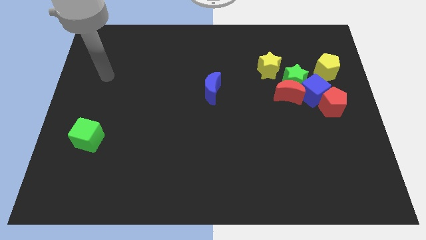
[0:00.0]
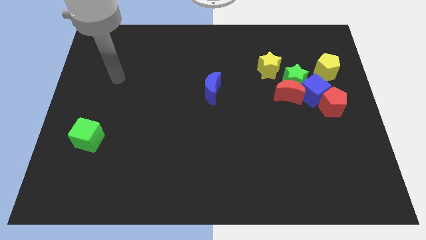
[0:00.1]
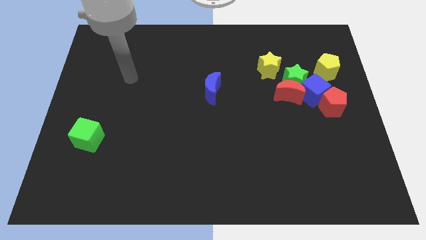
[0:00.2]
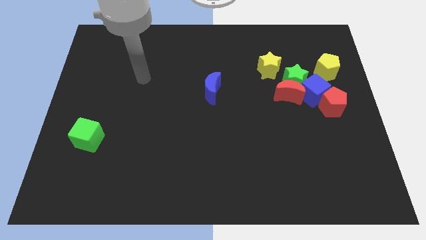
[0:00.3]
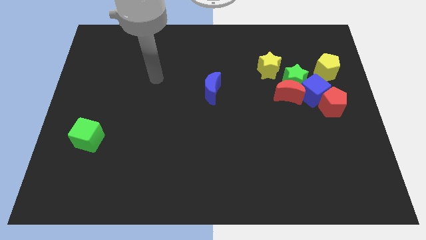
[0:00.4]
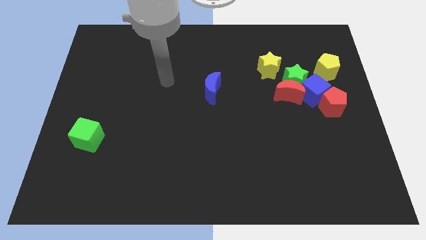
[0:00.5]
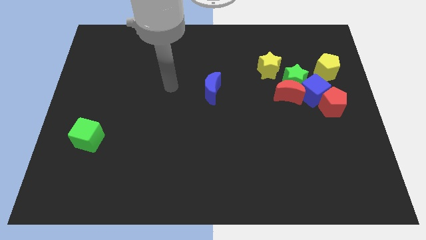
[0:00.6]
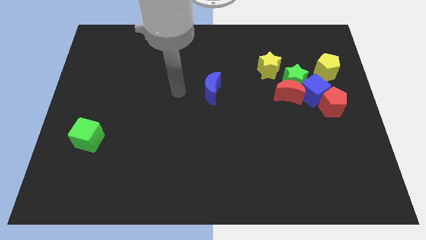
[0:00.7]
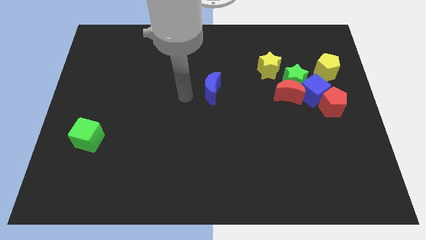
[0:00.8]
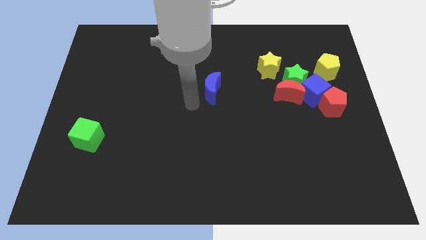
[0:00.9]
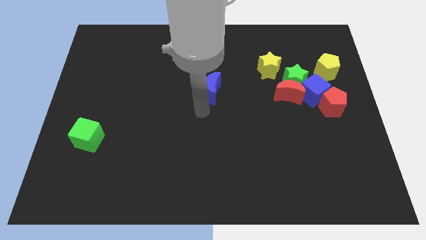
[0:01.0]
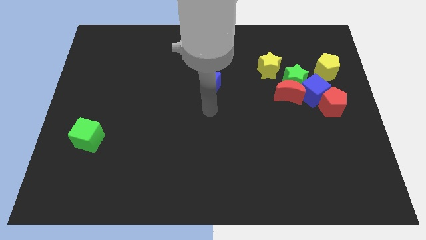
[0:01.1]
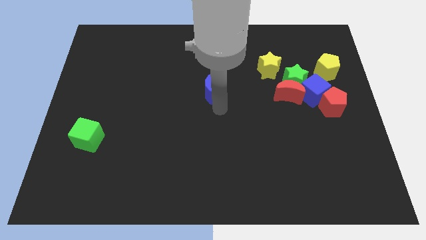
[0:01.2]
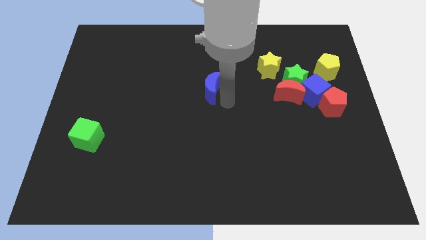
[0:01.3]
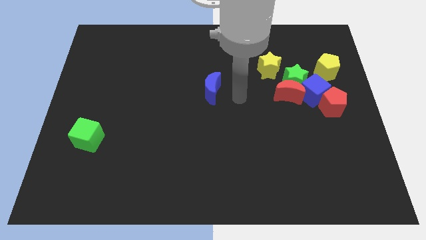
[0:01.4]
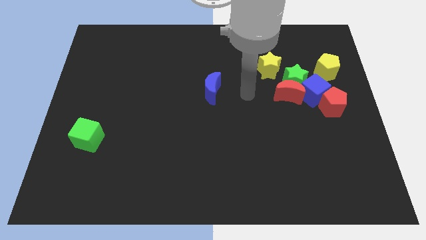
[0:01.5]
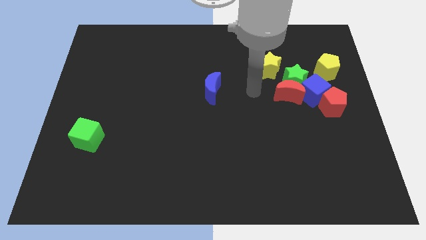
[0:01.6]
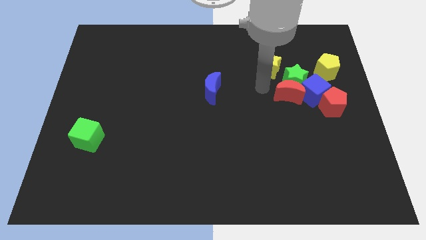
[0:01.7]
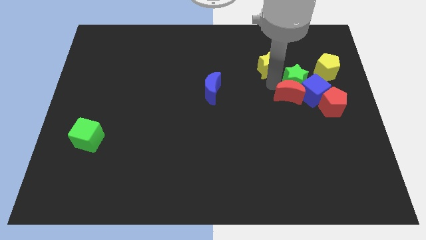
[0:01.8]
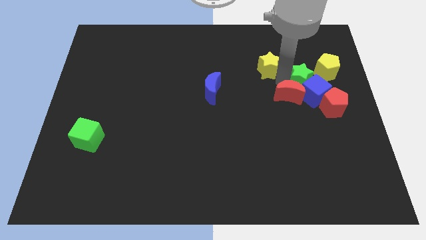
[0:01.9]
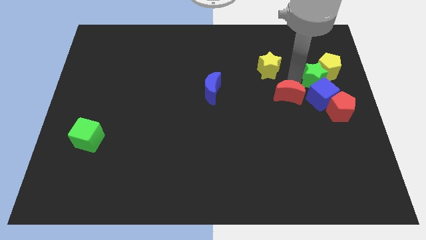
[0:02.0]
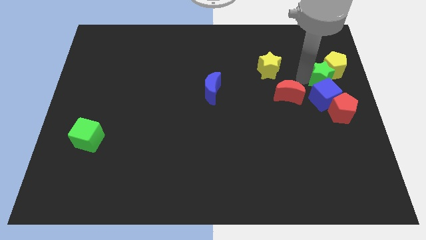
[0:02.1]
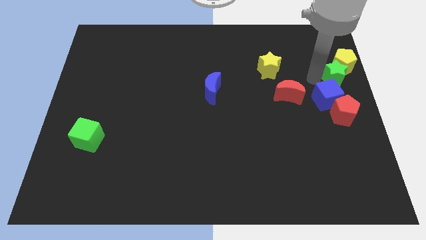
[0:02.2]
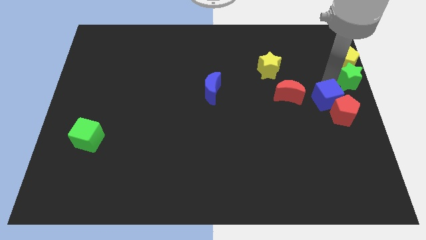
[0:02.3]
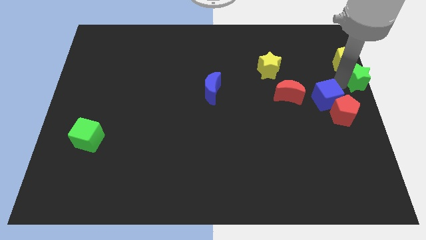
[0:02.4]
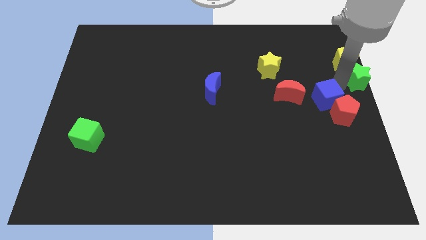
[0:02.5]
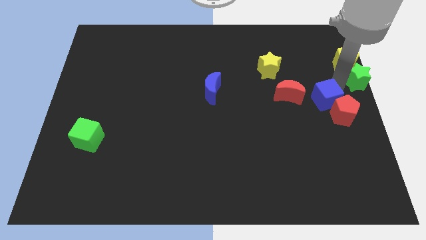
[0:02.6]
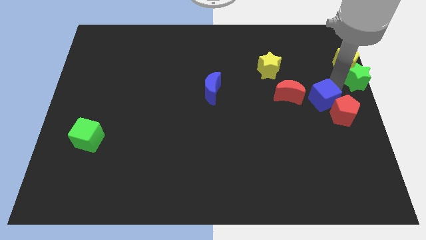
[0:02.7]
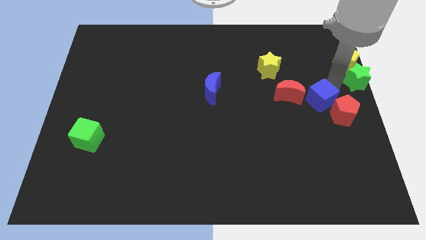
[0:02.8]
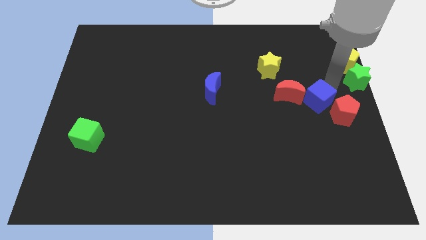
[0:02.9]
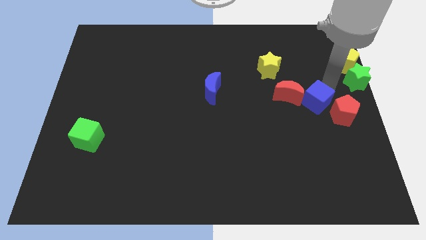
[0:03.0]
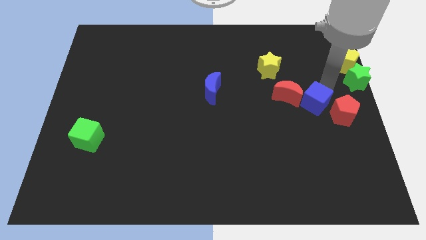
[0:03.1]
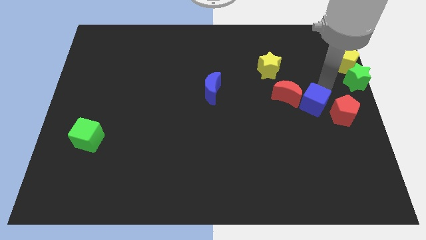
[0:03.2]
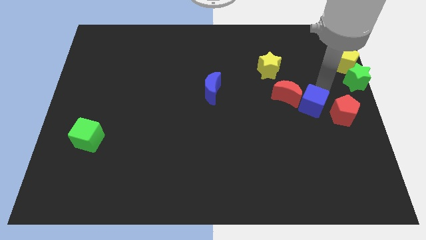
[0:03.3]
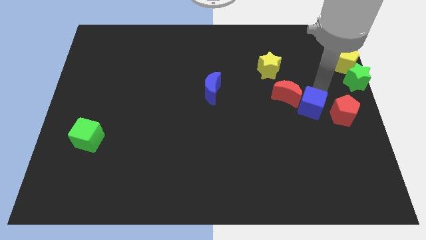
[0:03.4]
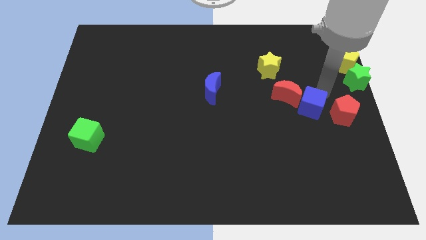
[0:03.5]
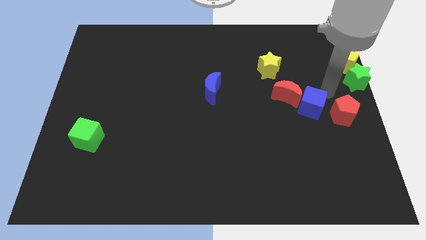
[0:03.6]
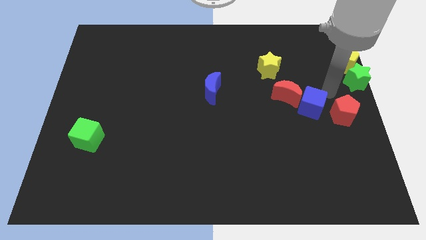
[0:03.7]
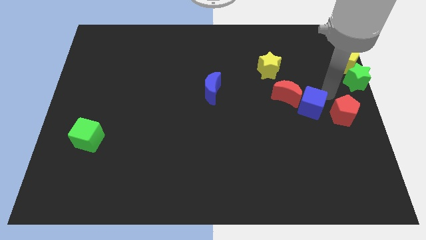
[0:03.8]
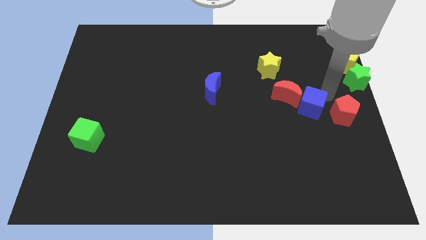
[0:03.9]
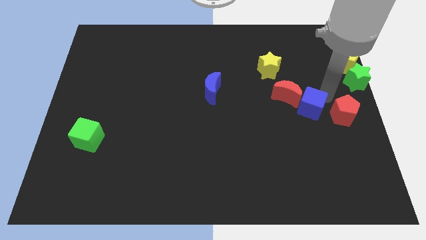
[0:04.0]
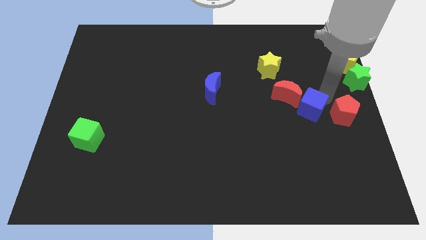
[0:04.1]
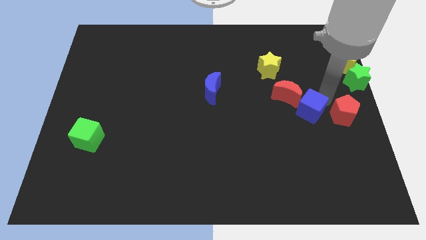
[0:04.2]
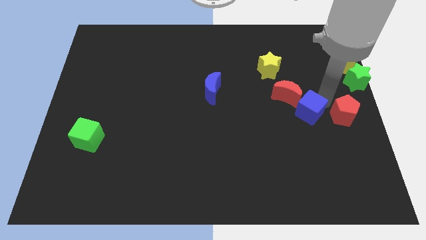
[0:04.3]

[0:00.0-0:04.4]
move the blue cube away from the group of blocks

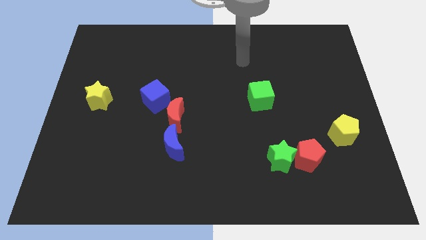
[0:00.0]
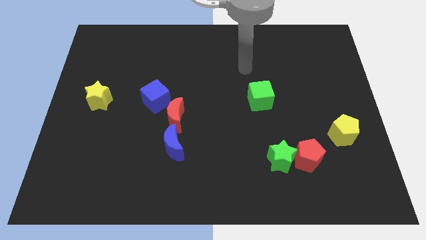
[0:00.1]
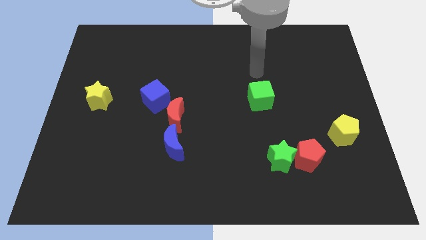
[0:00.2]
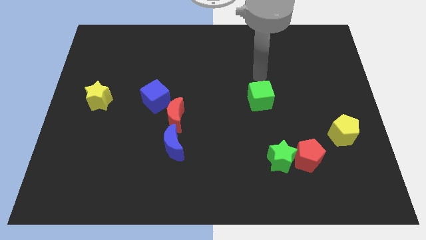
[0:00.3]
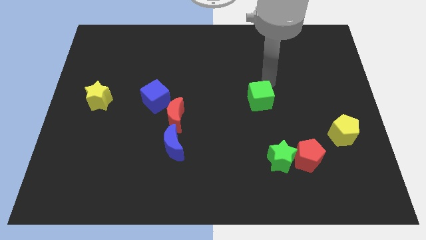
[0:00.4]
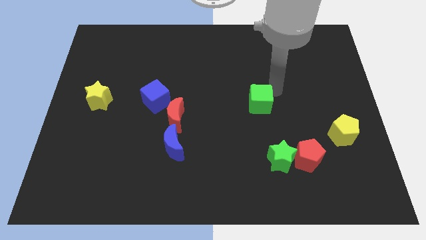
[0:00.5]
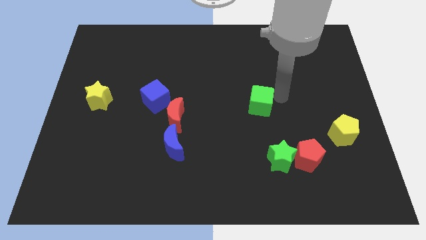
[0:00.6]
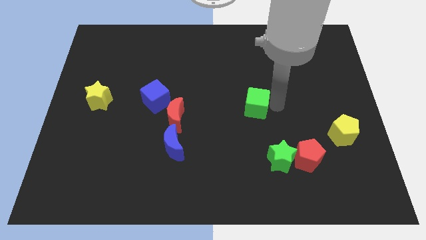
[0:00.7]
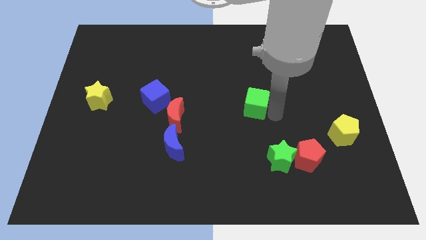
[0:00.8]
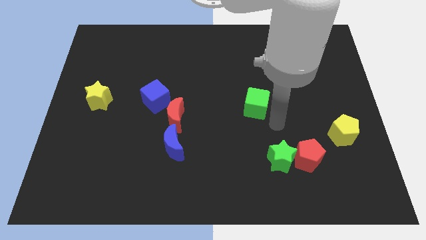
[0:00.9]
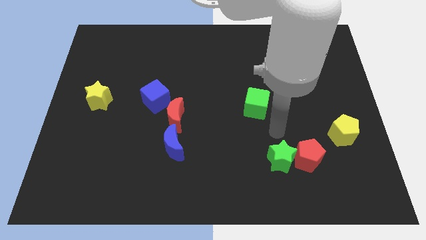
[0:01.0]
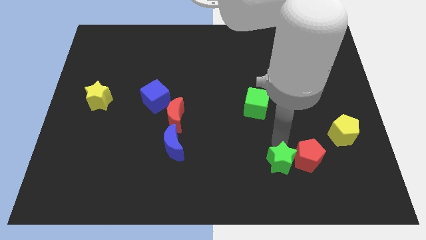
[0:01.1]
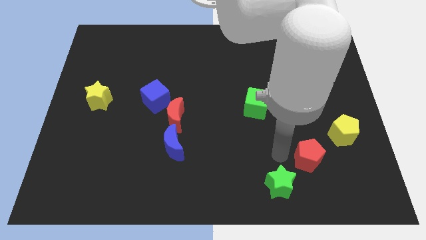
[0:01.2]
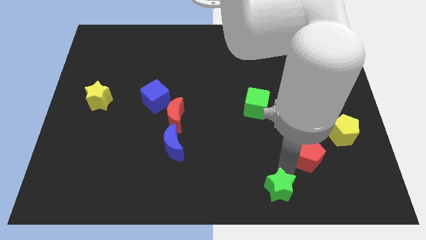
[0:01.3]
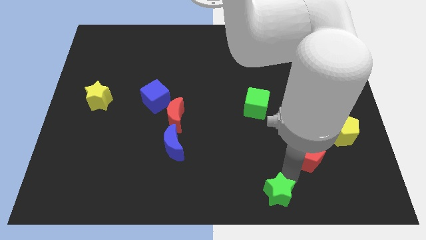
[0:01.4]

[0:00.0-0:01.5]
separate the red pentagon from the green star

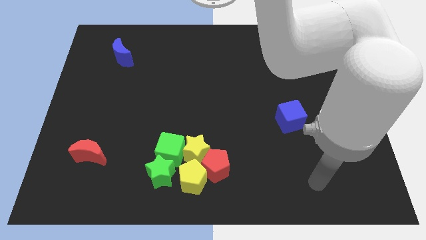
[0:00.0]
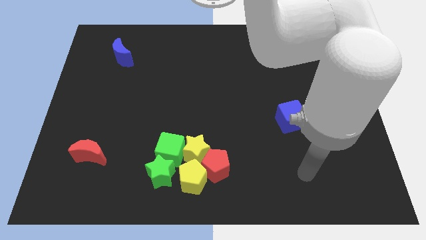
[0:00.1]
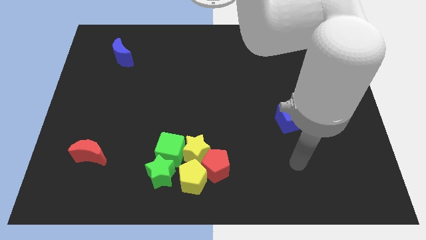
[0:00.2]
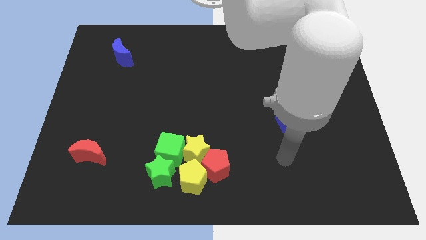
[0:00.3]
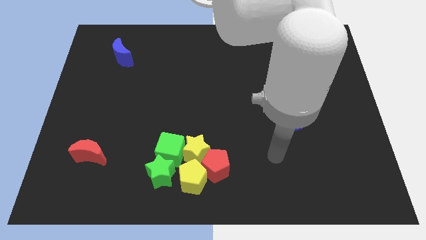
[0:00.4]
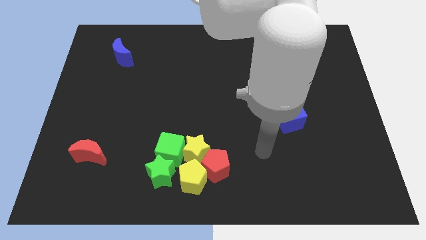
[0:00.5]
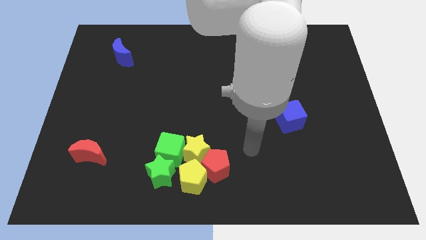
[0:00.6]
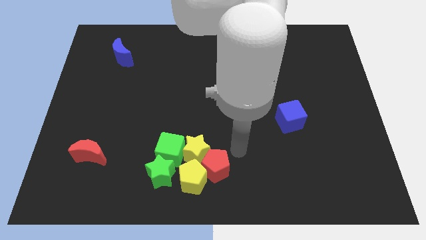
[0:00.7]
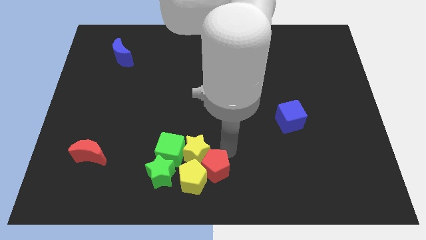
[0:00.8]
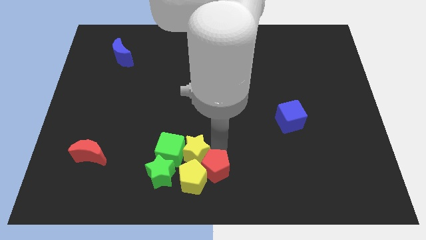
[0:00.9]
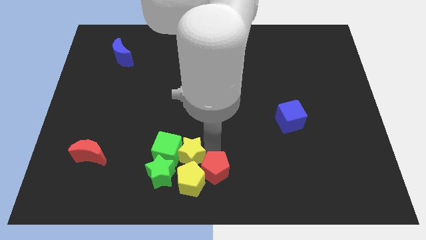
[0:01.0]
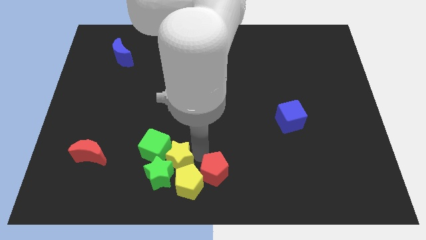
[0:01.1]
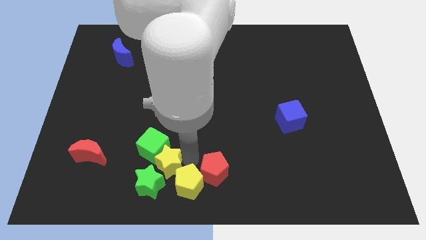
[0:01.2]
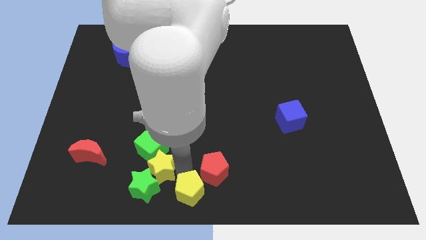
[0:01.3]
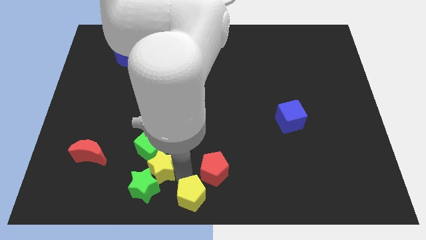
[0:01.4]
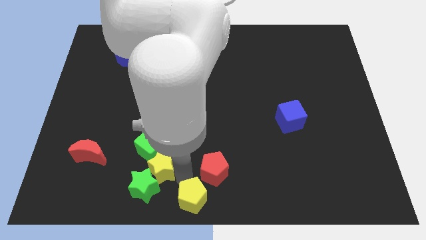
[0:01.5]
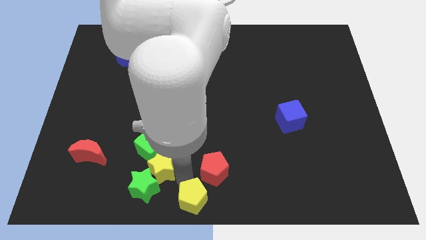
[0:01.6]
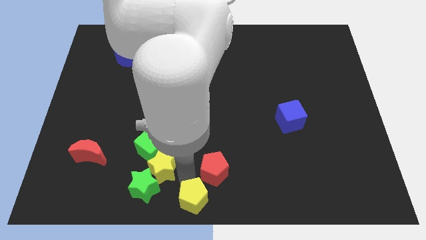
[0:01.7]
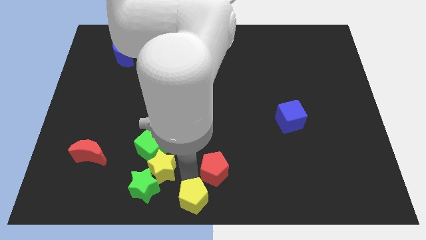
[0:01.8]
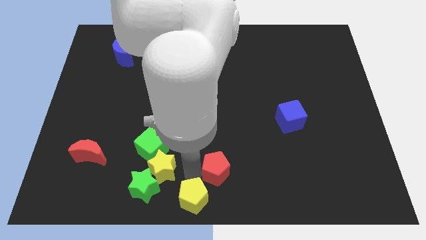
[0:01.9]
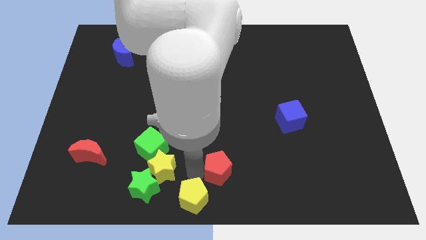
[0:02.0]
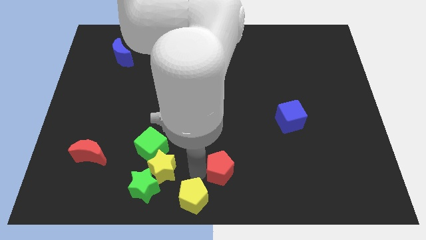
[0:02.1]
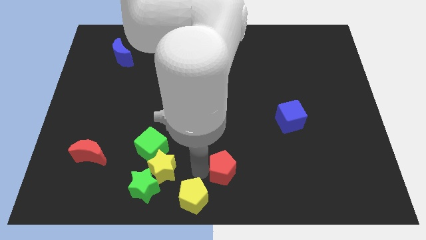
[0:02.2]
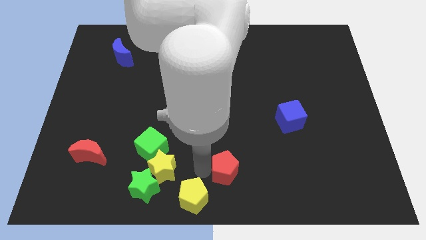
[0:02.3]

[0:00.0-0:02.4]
separate the red pentagon from the yellow pentagon and yellow star

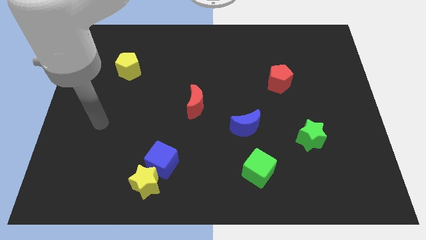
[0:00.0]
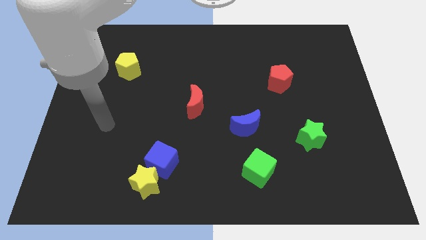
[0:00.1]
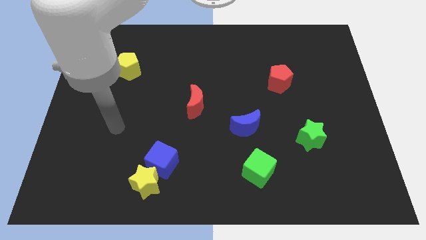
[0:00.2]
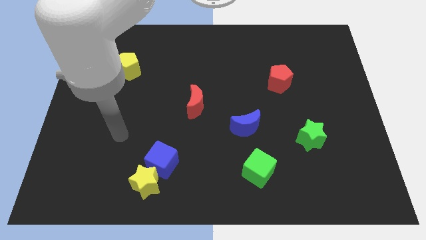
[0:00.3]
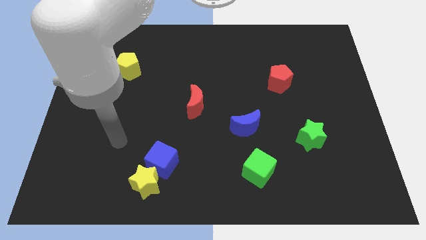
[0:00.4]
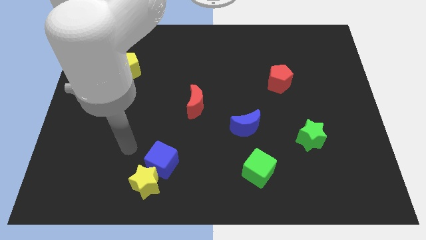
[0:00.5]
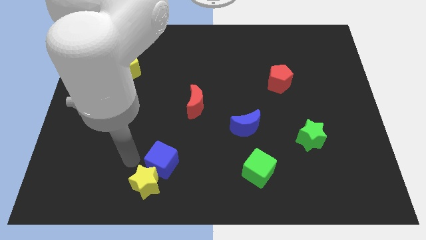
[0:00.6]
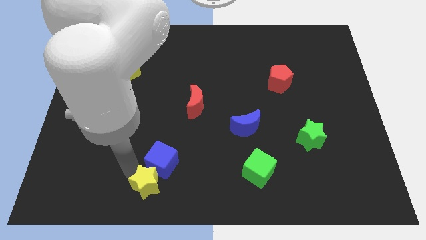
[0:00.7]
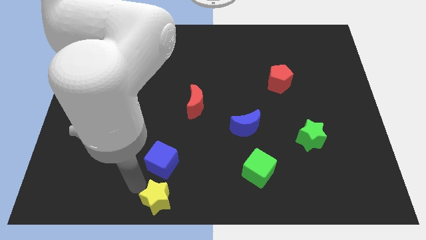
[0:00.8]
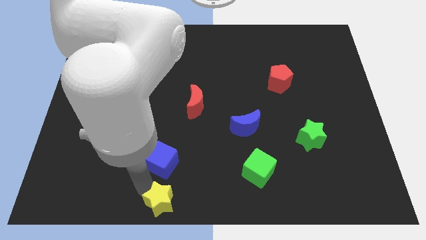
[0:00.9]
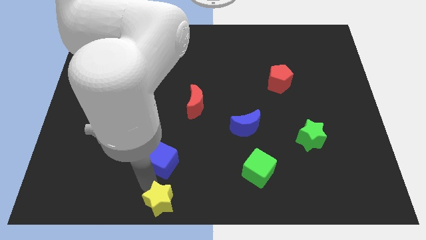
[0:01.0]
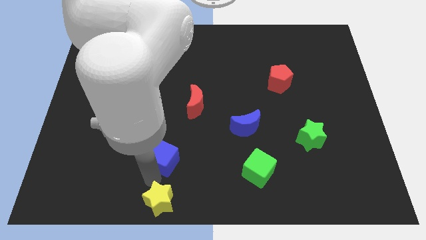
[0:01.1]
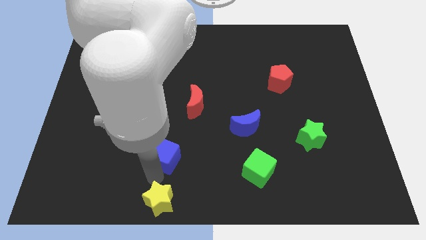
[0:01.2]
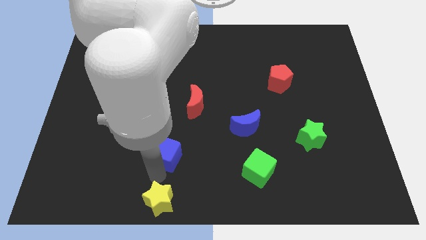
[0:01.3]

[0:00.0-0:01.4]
pull the blue cube apart from the yellow star
